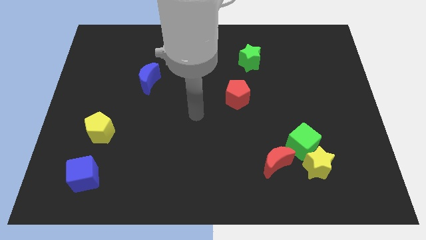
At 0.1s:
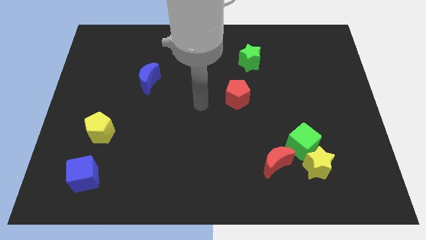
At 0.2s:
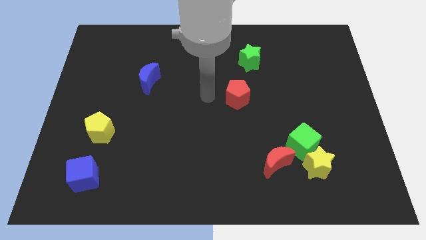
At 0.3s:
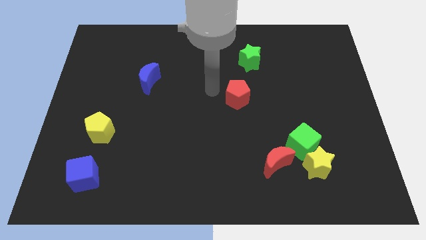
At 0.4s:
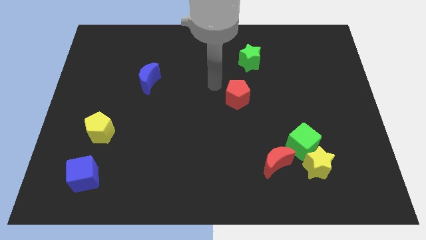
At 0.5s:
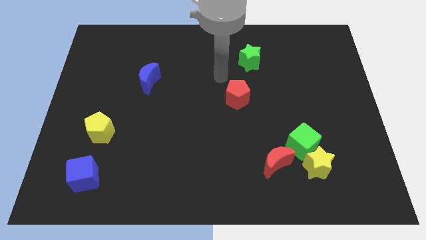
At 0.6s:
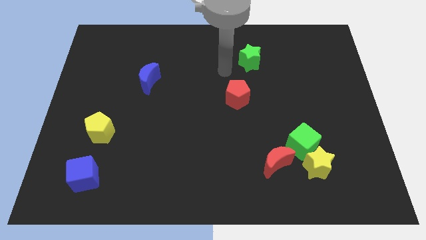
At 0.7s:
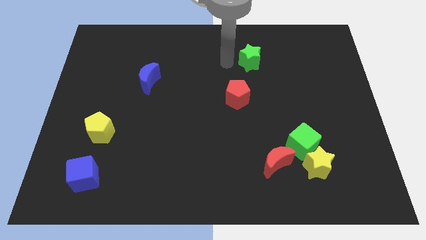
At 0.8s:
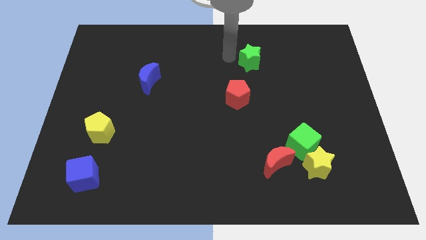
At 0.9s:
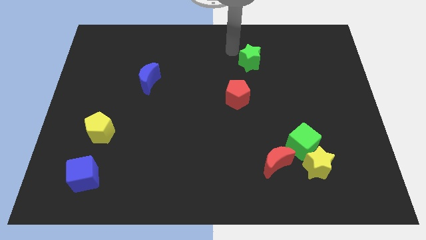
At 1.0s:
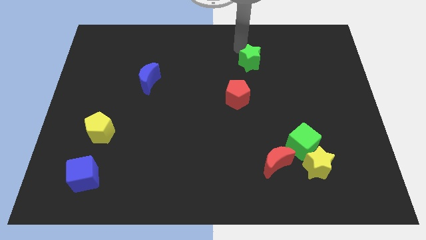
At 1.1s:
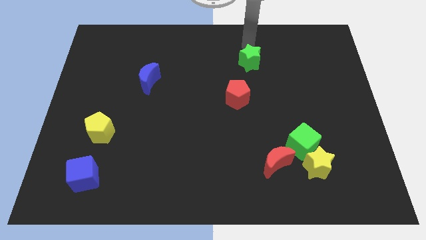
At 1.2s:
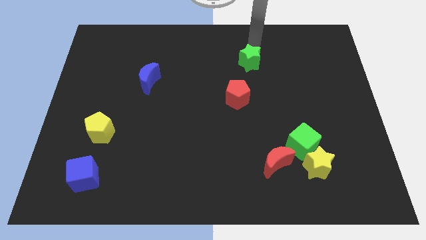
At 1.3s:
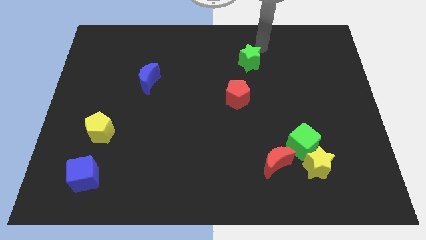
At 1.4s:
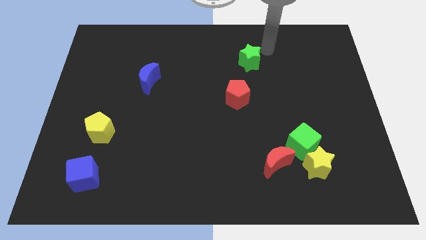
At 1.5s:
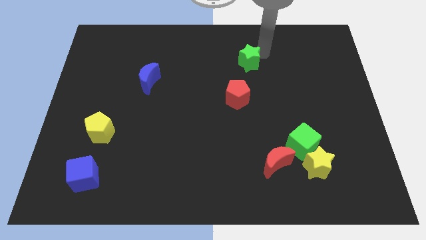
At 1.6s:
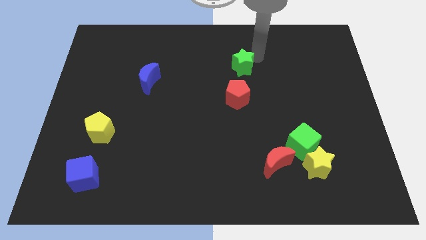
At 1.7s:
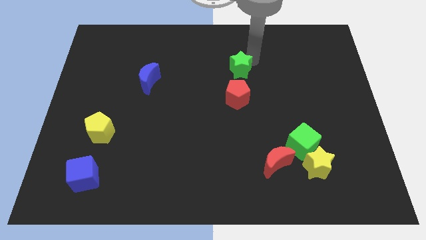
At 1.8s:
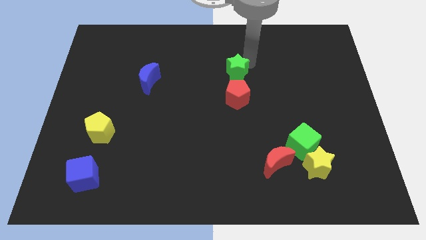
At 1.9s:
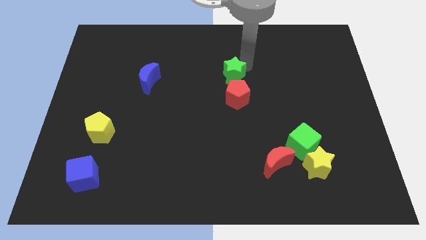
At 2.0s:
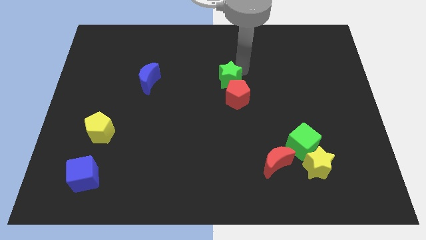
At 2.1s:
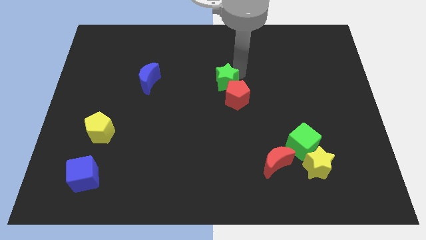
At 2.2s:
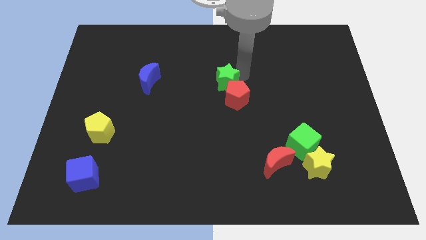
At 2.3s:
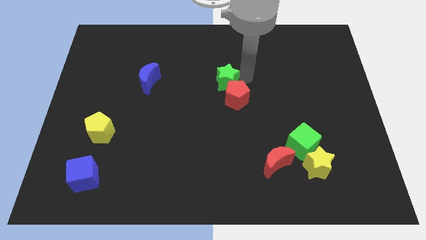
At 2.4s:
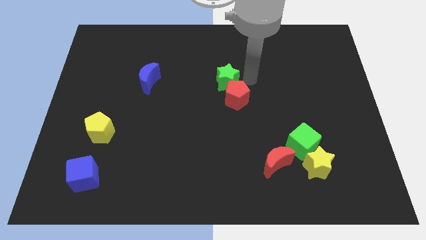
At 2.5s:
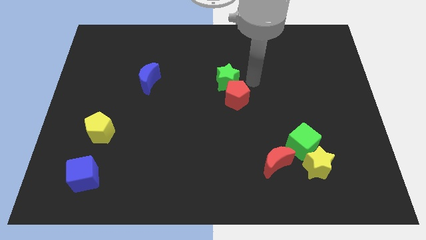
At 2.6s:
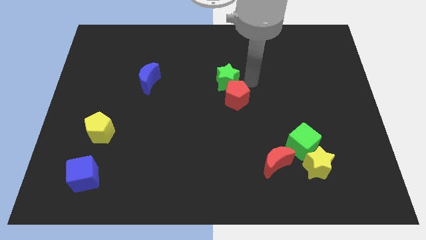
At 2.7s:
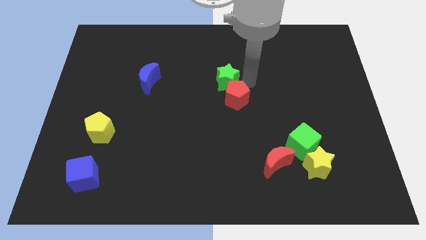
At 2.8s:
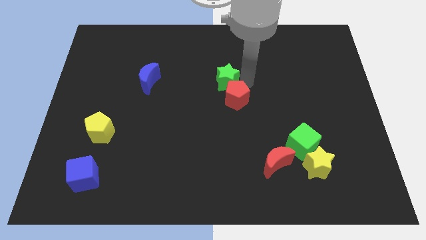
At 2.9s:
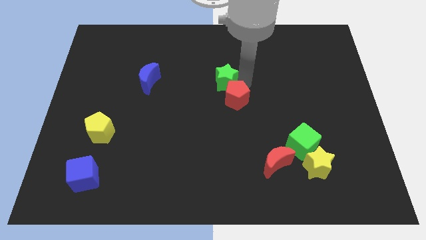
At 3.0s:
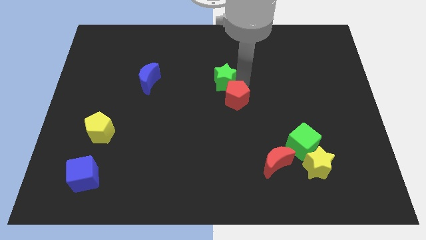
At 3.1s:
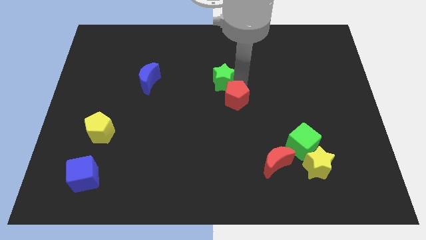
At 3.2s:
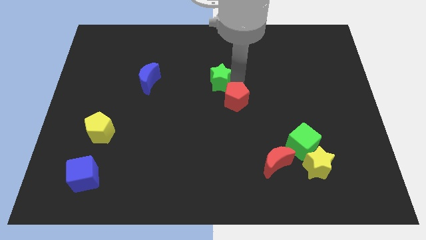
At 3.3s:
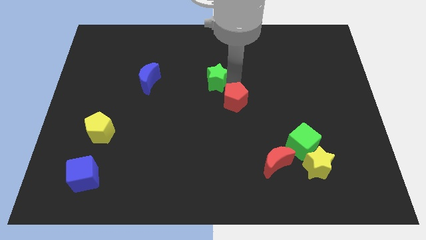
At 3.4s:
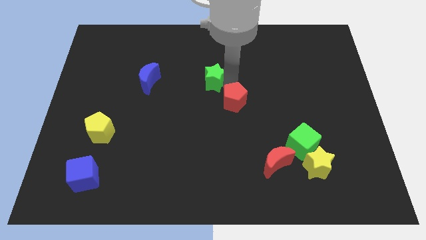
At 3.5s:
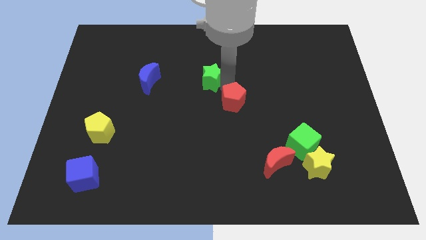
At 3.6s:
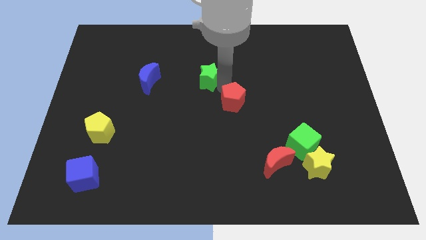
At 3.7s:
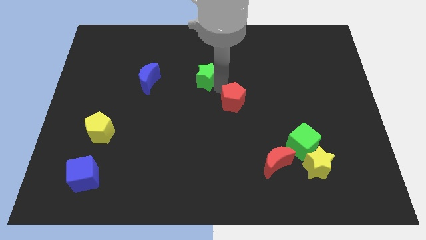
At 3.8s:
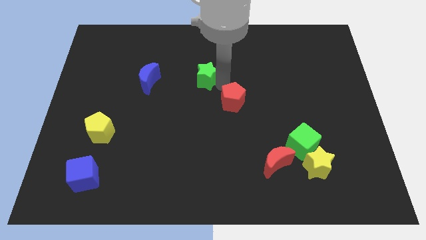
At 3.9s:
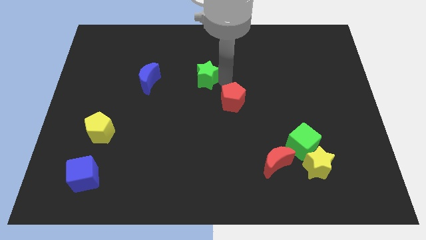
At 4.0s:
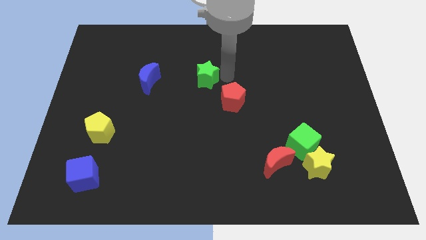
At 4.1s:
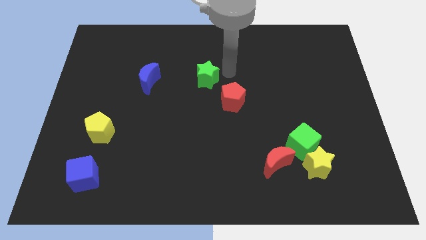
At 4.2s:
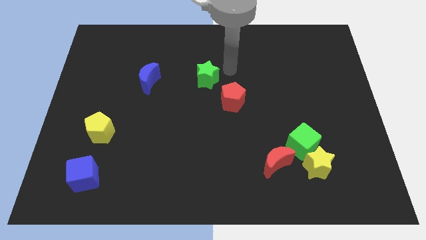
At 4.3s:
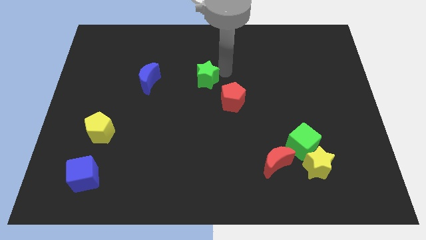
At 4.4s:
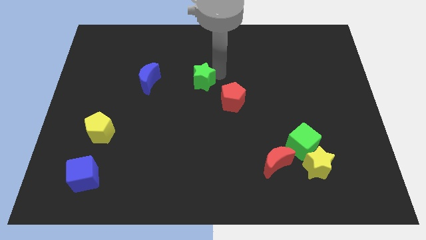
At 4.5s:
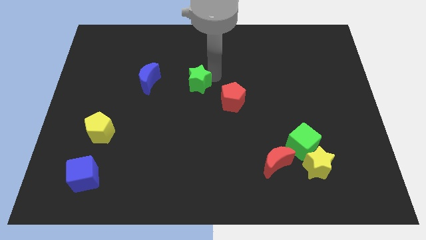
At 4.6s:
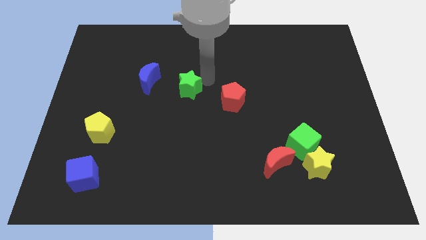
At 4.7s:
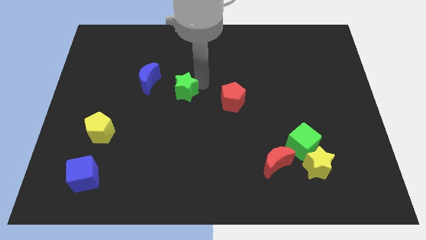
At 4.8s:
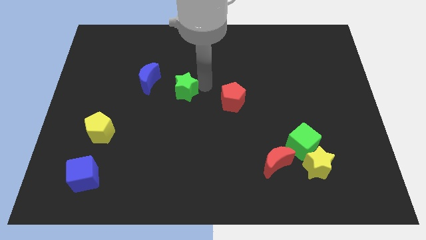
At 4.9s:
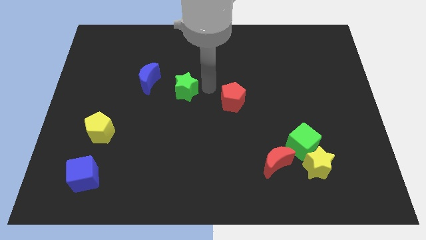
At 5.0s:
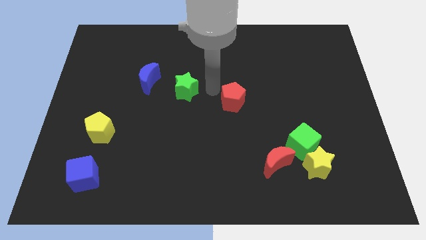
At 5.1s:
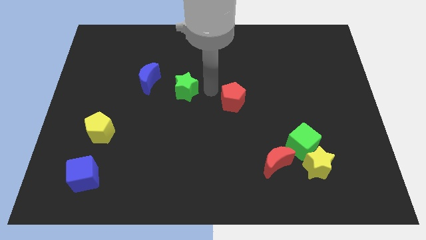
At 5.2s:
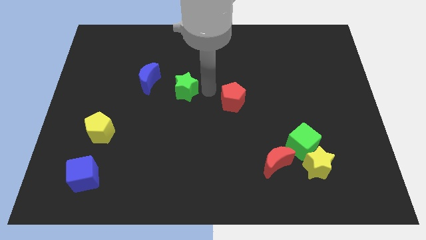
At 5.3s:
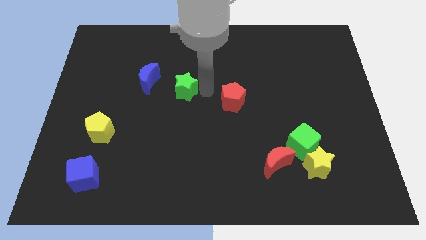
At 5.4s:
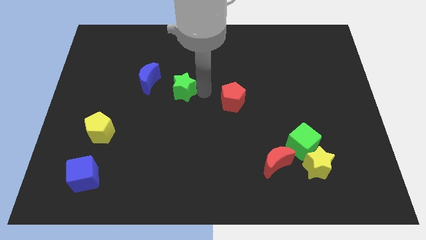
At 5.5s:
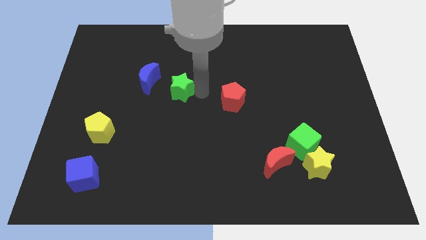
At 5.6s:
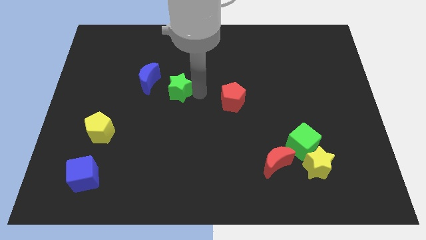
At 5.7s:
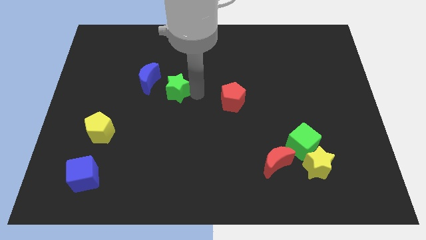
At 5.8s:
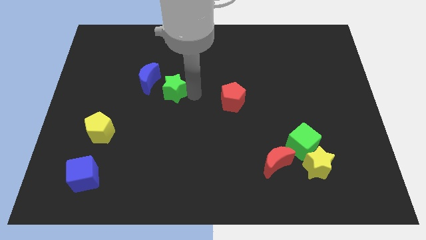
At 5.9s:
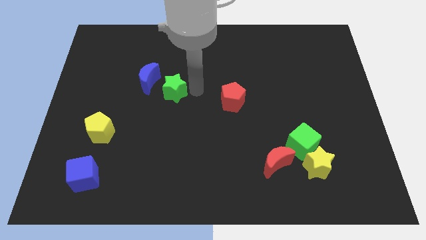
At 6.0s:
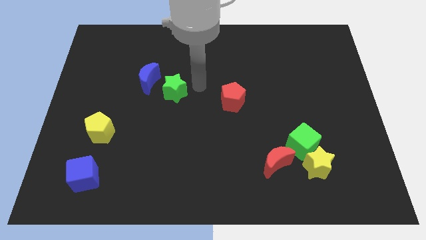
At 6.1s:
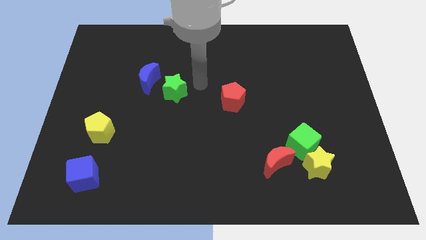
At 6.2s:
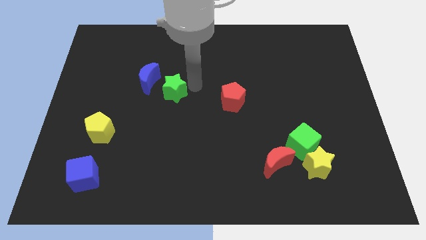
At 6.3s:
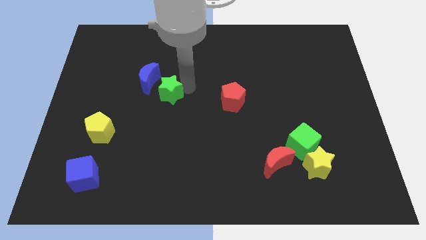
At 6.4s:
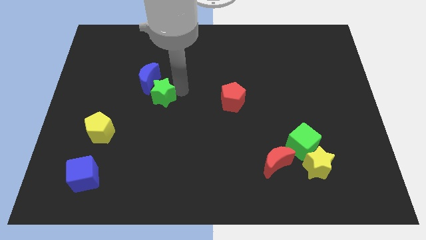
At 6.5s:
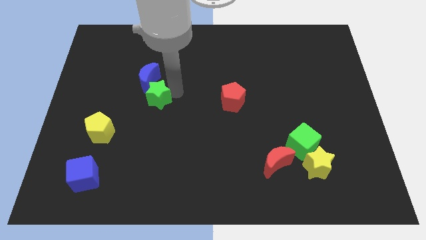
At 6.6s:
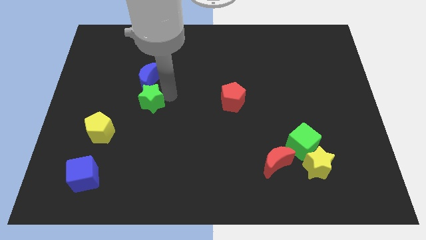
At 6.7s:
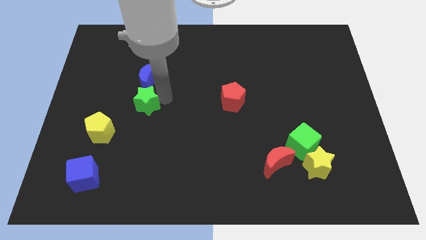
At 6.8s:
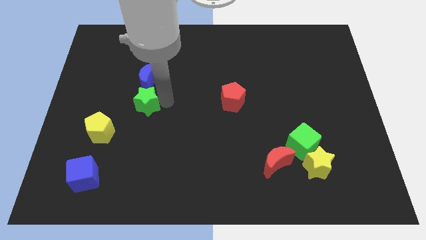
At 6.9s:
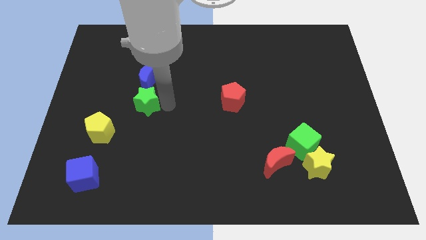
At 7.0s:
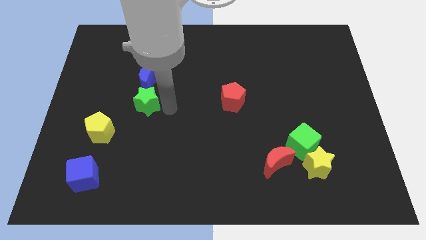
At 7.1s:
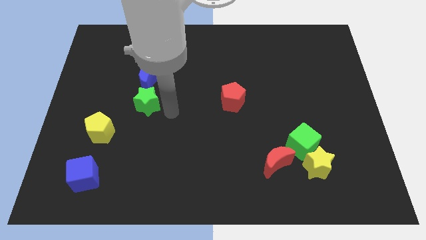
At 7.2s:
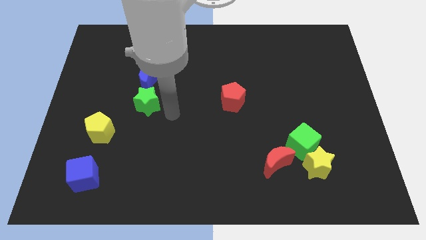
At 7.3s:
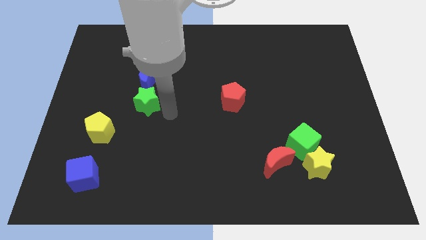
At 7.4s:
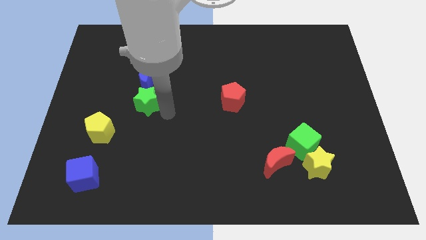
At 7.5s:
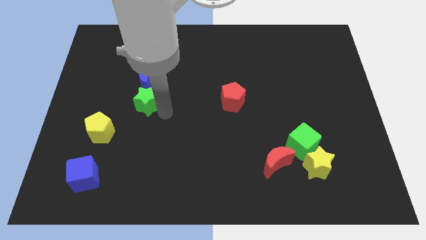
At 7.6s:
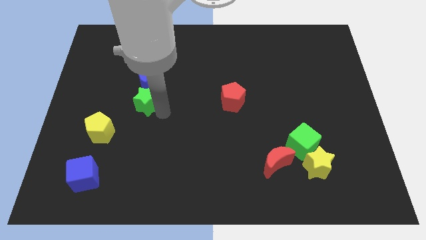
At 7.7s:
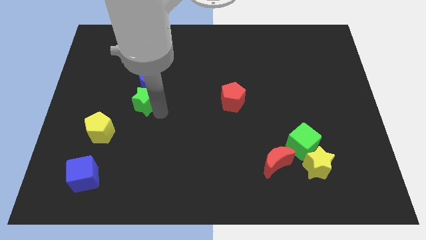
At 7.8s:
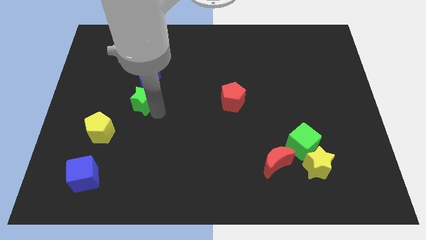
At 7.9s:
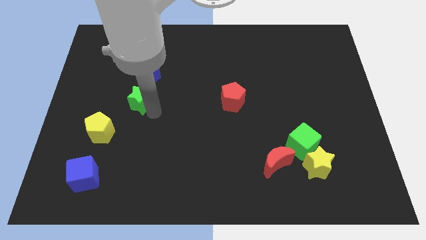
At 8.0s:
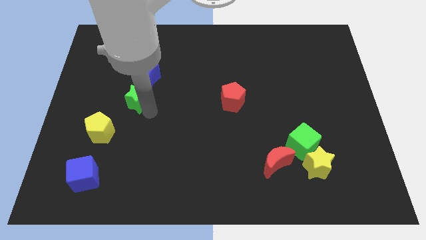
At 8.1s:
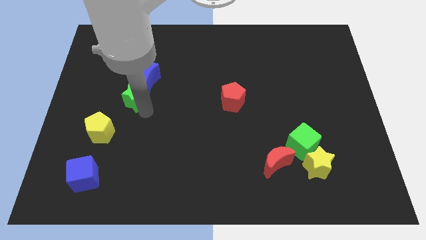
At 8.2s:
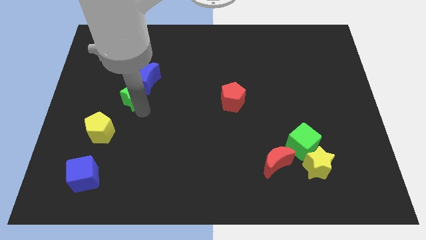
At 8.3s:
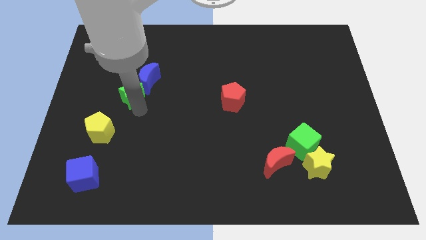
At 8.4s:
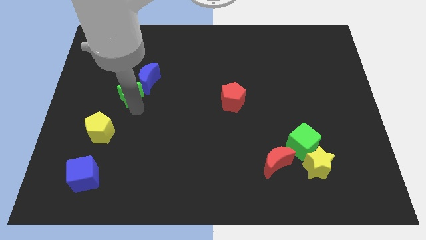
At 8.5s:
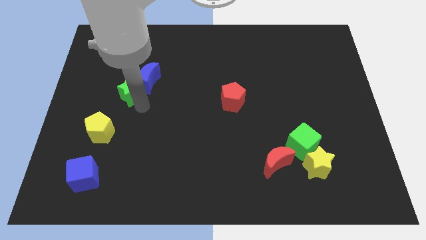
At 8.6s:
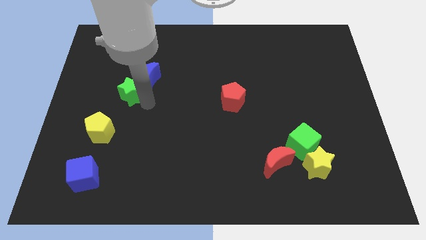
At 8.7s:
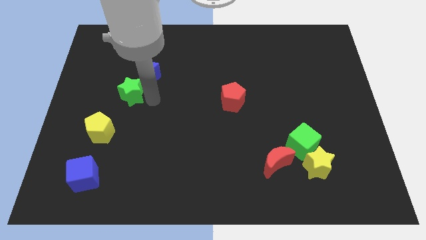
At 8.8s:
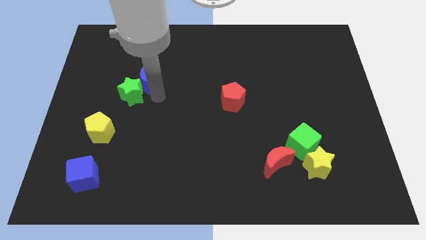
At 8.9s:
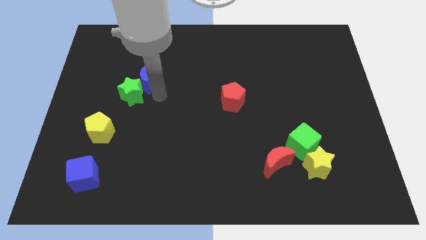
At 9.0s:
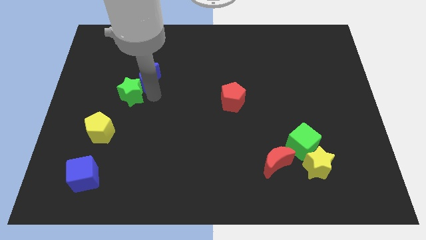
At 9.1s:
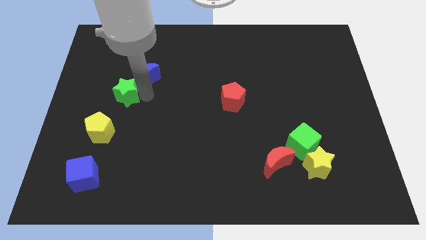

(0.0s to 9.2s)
move the green star to the top side of the yellow pentagon
